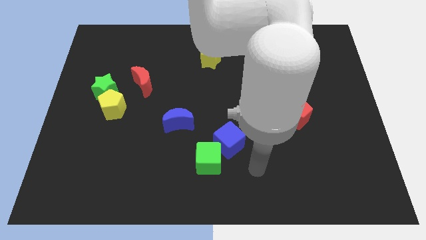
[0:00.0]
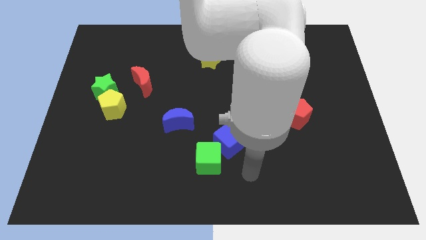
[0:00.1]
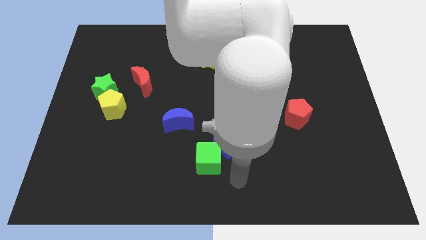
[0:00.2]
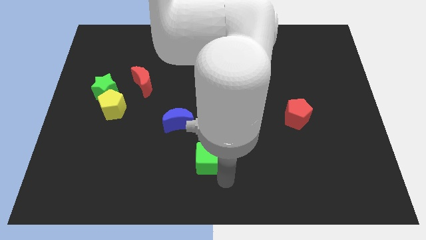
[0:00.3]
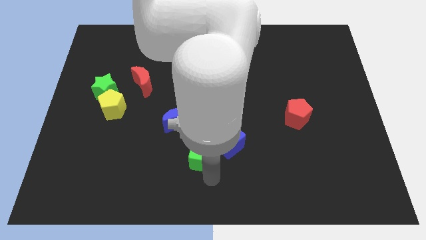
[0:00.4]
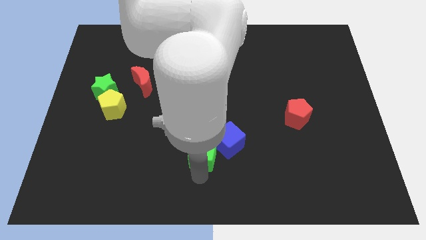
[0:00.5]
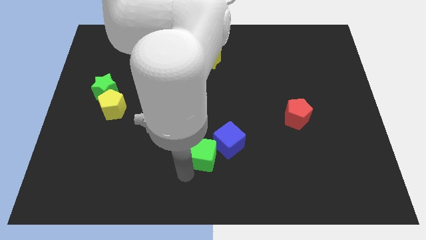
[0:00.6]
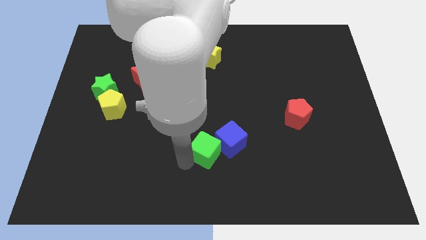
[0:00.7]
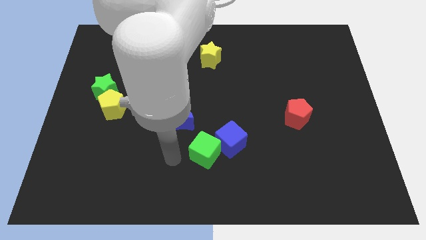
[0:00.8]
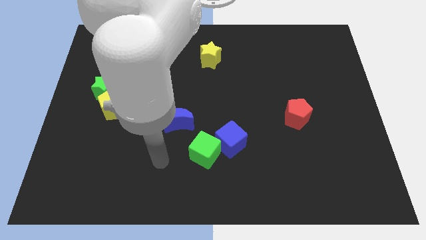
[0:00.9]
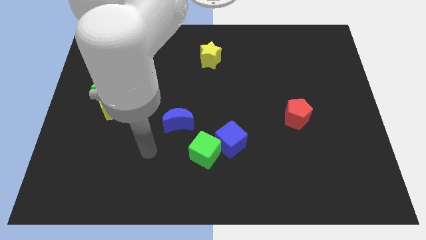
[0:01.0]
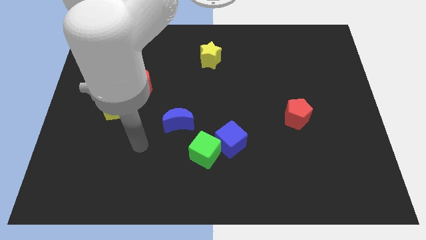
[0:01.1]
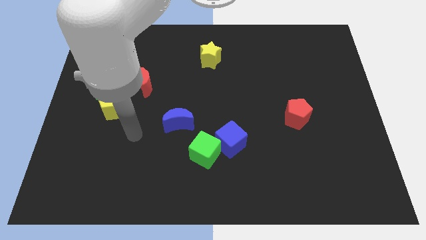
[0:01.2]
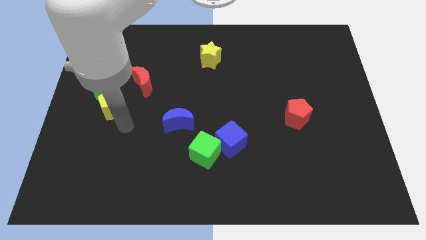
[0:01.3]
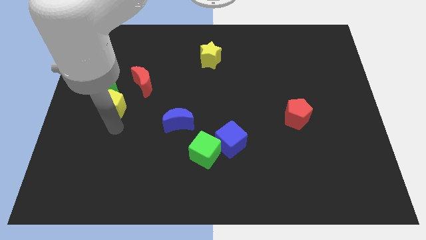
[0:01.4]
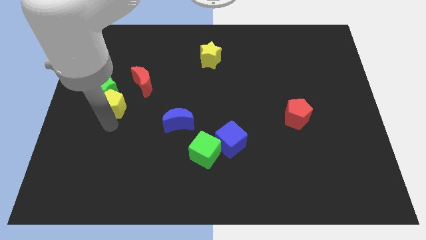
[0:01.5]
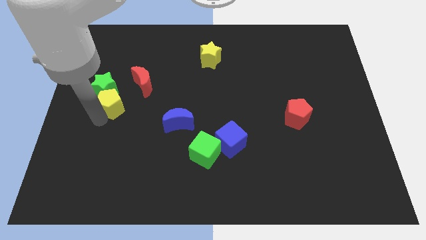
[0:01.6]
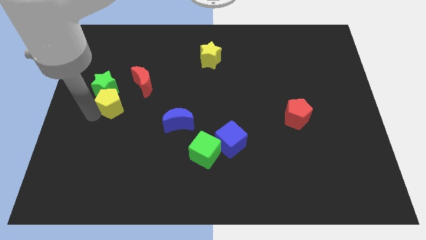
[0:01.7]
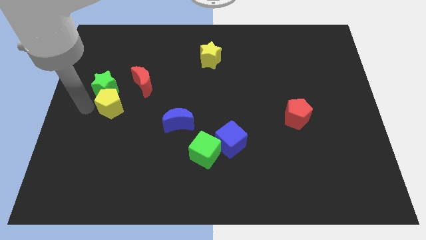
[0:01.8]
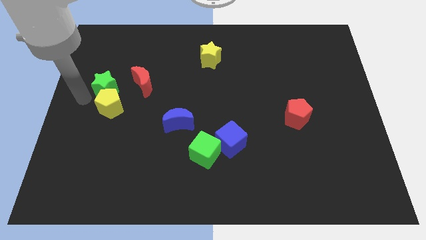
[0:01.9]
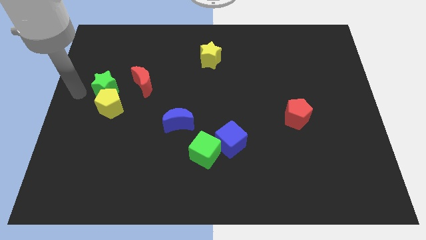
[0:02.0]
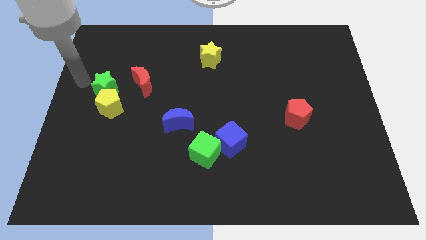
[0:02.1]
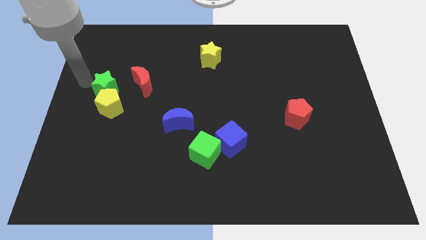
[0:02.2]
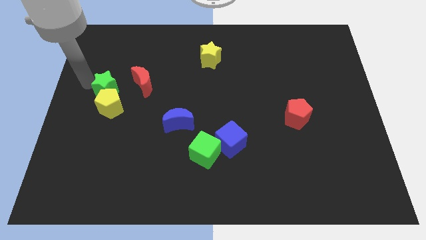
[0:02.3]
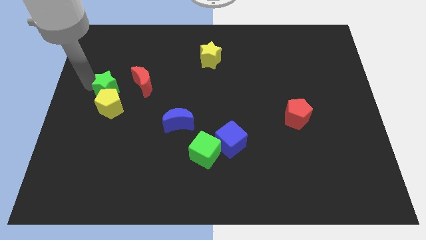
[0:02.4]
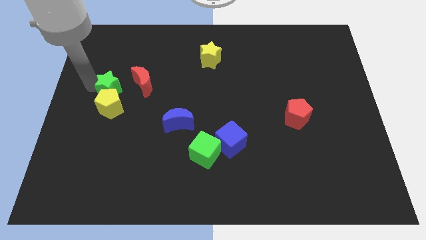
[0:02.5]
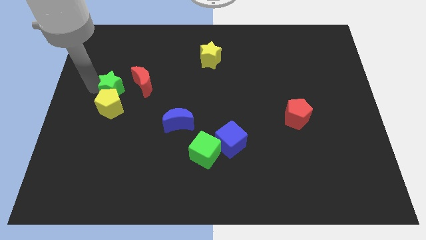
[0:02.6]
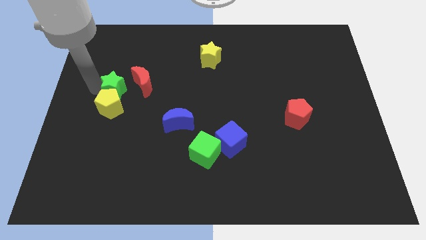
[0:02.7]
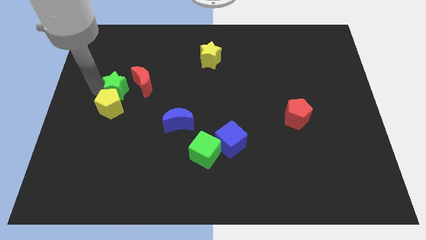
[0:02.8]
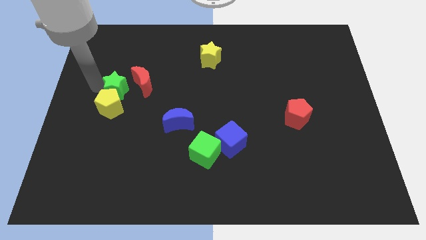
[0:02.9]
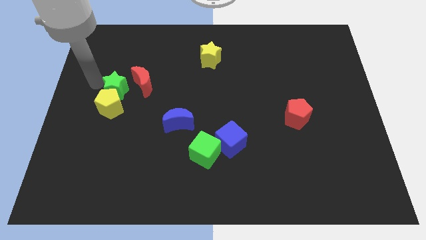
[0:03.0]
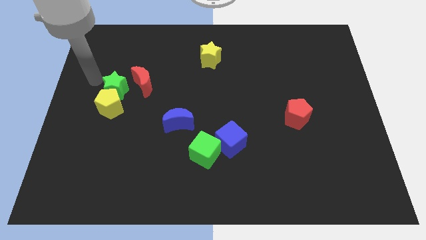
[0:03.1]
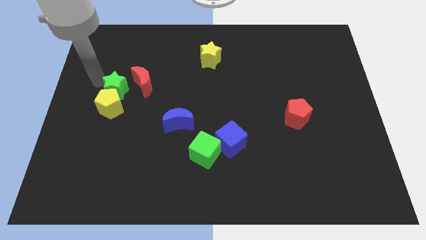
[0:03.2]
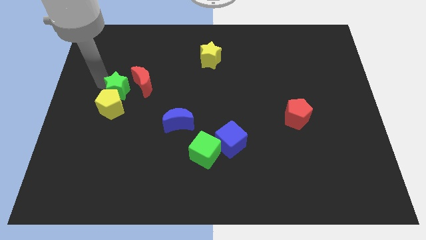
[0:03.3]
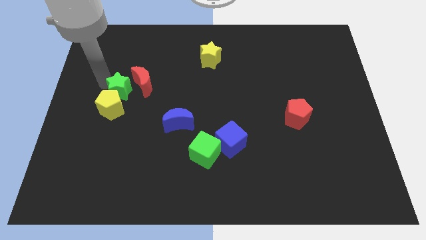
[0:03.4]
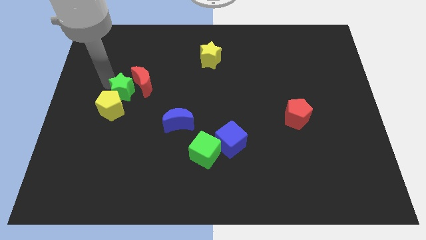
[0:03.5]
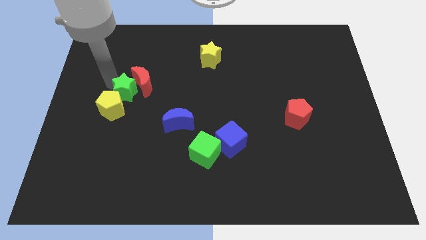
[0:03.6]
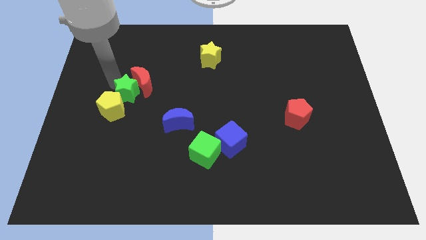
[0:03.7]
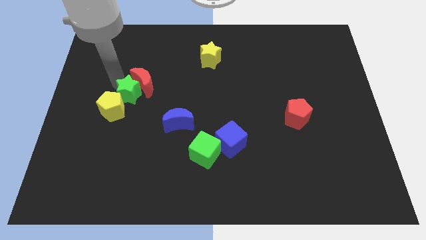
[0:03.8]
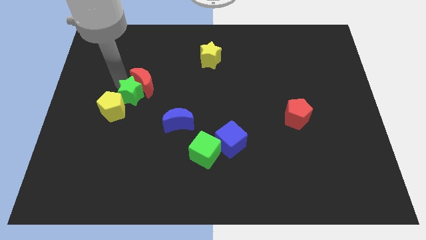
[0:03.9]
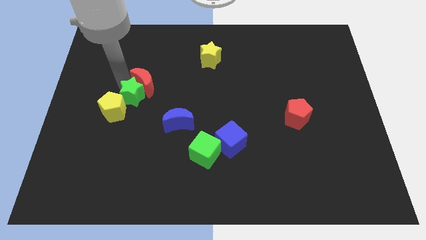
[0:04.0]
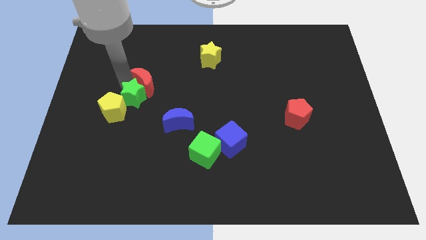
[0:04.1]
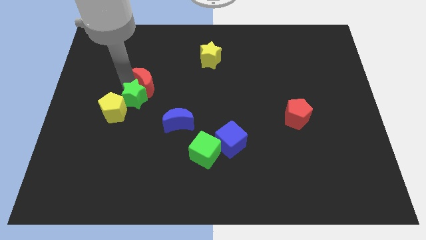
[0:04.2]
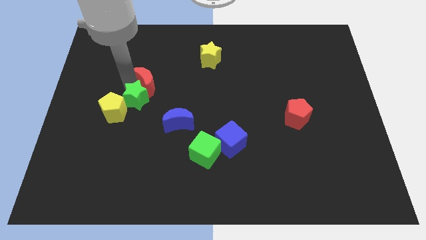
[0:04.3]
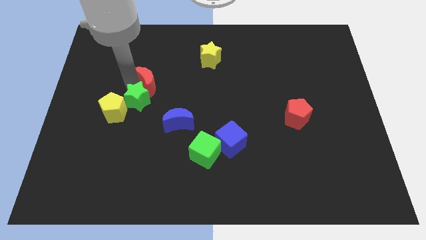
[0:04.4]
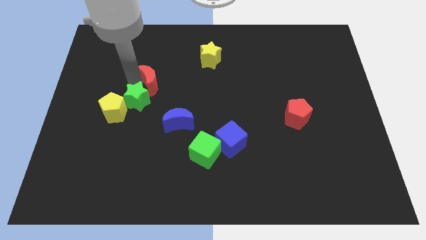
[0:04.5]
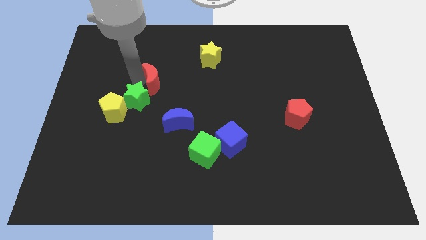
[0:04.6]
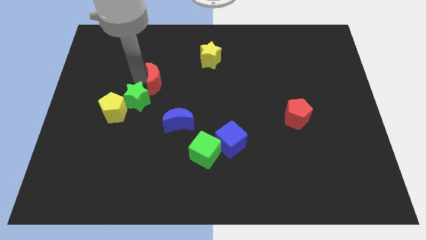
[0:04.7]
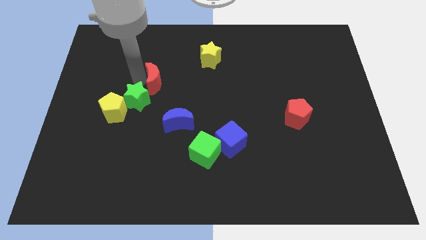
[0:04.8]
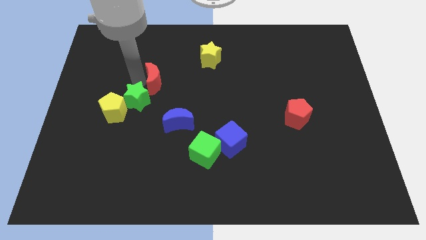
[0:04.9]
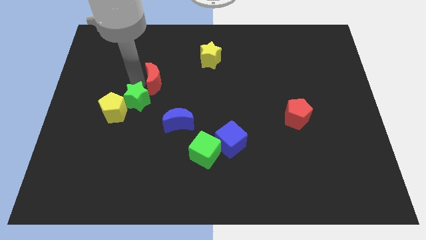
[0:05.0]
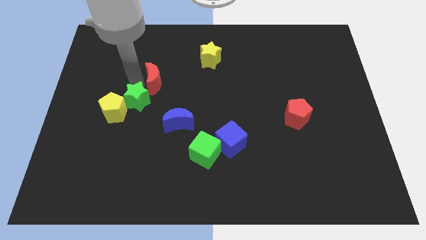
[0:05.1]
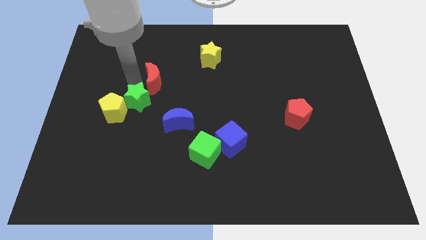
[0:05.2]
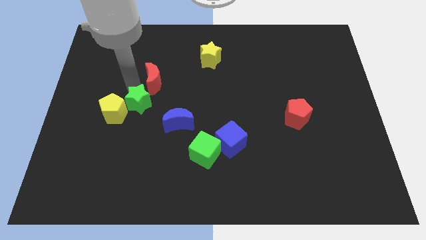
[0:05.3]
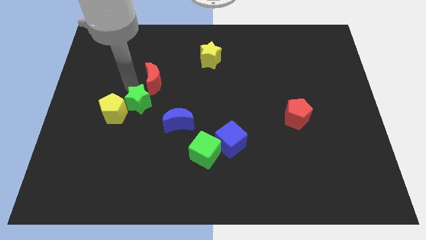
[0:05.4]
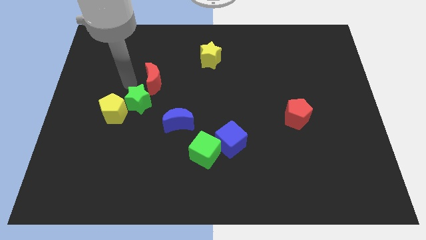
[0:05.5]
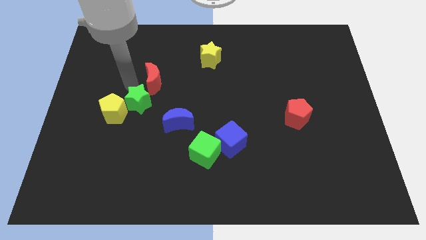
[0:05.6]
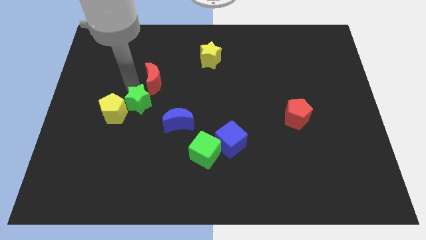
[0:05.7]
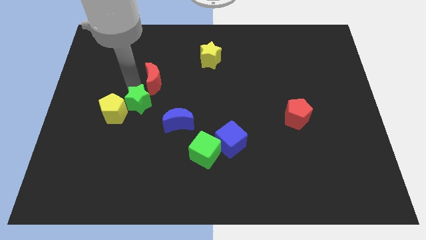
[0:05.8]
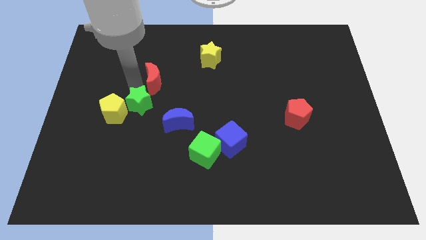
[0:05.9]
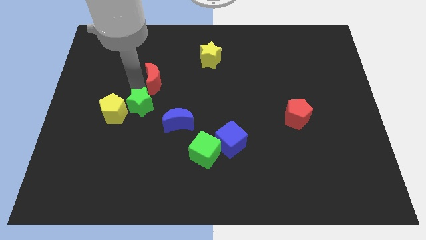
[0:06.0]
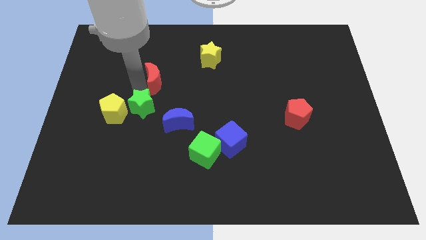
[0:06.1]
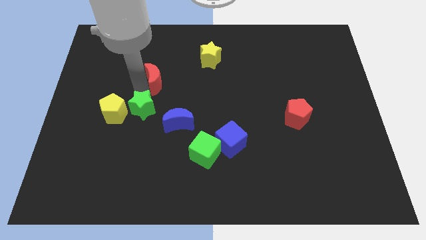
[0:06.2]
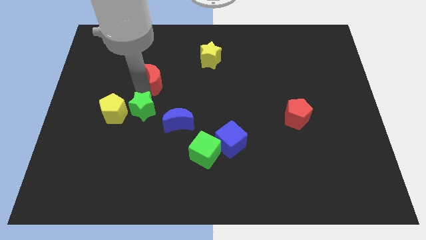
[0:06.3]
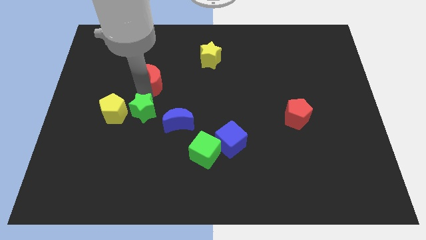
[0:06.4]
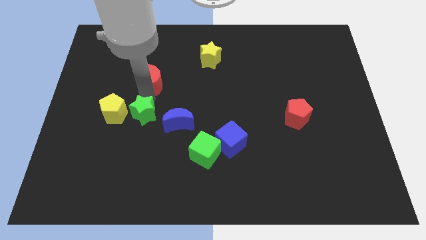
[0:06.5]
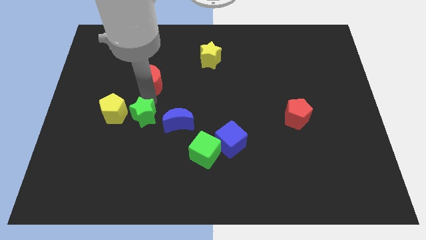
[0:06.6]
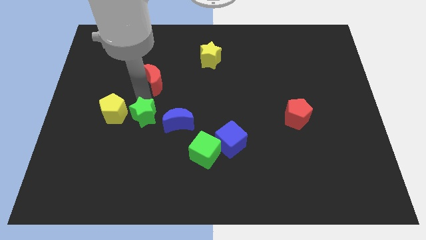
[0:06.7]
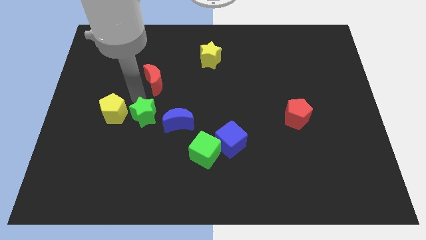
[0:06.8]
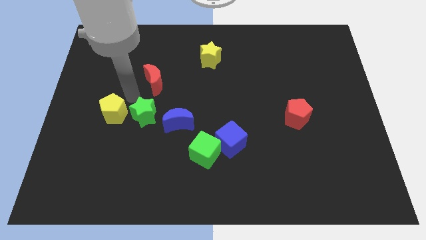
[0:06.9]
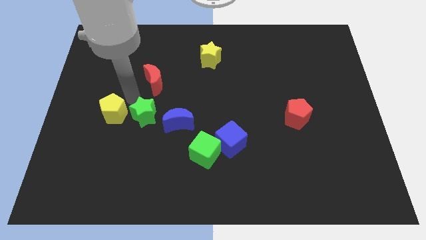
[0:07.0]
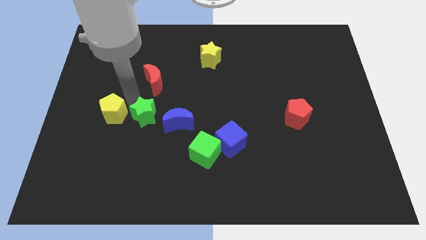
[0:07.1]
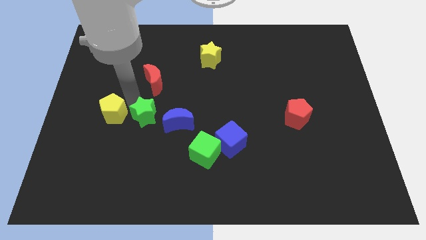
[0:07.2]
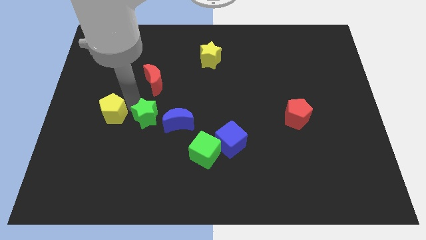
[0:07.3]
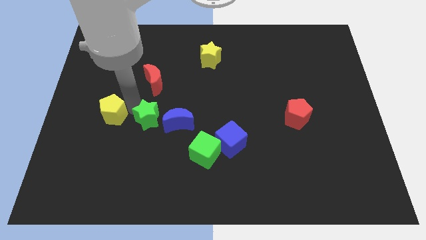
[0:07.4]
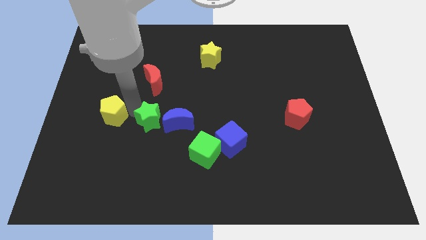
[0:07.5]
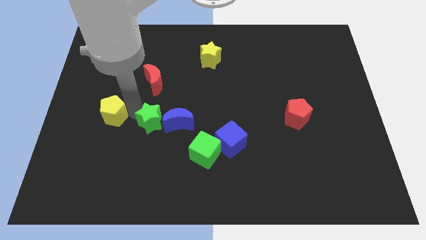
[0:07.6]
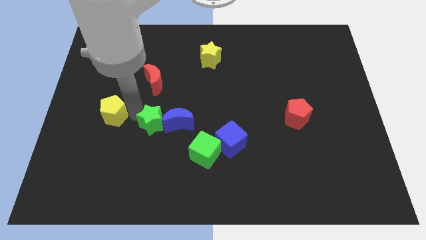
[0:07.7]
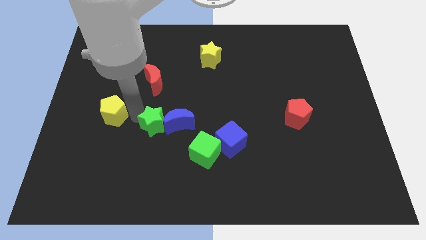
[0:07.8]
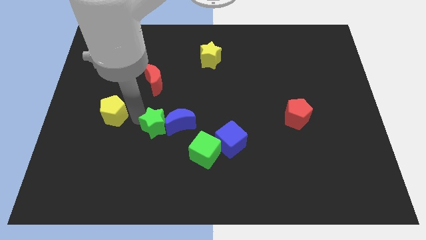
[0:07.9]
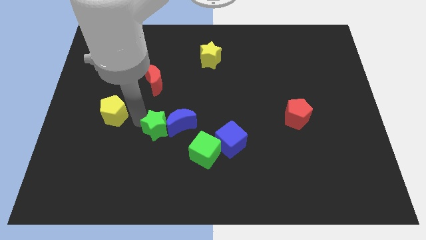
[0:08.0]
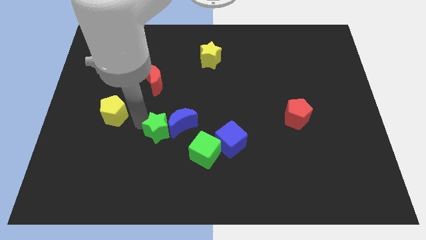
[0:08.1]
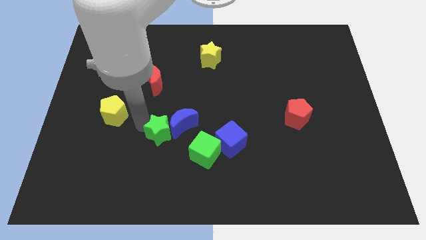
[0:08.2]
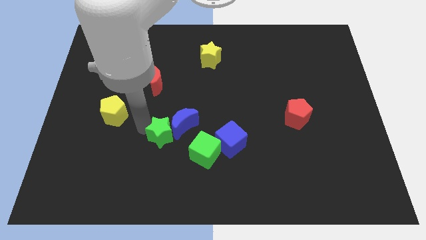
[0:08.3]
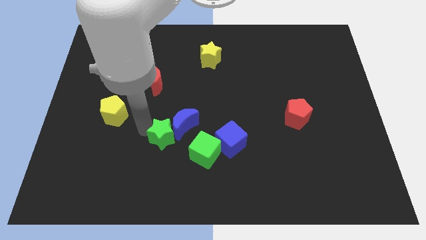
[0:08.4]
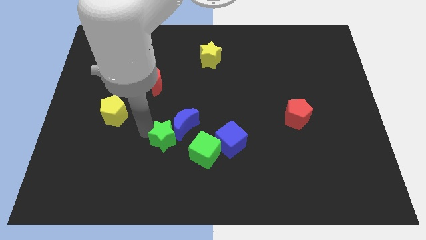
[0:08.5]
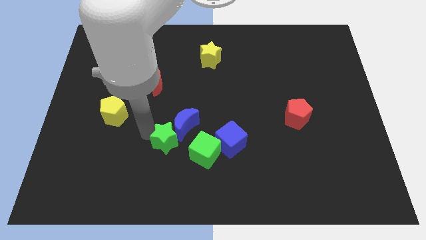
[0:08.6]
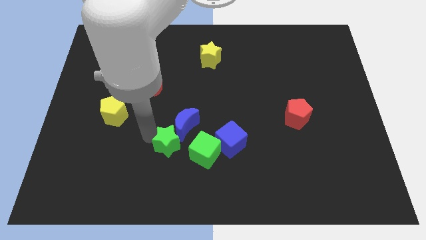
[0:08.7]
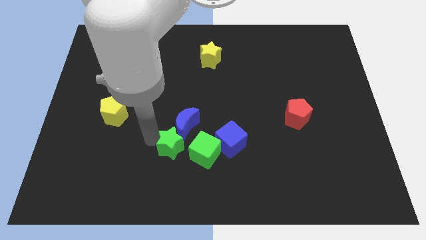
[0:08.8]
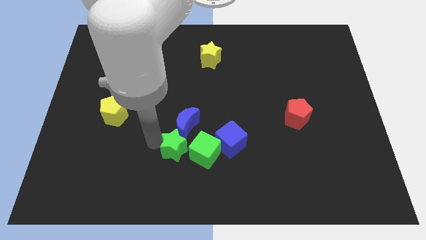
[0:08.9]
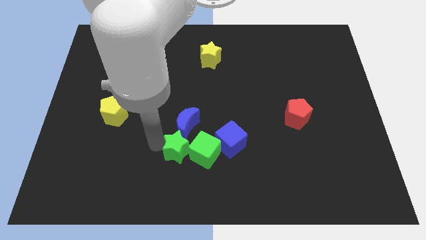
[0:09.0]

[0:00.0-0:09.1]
move the green star close to the green cube
